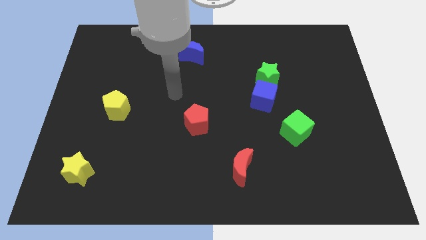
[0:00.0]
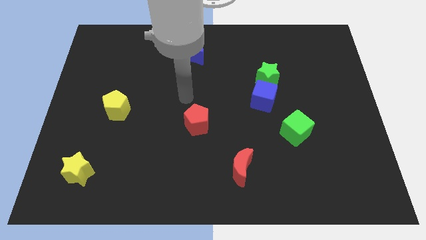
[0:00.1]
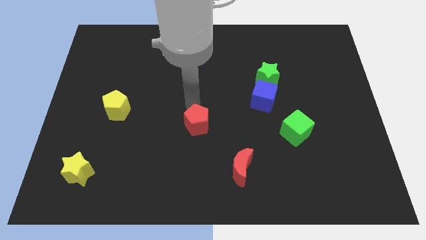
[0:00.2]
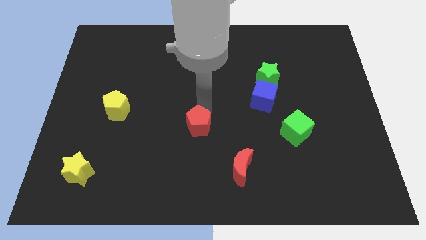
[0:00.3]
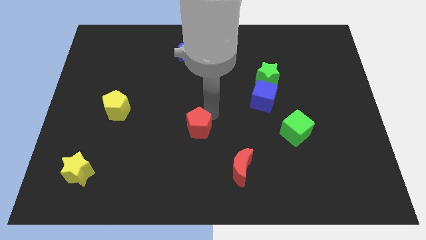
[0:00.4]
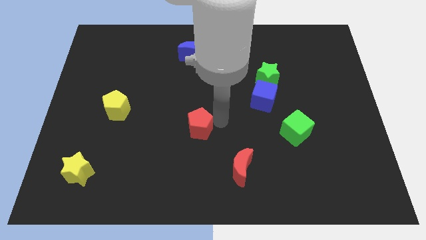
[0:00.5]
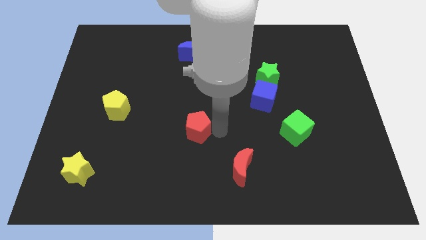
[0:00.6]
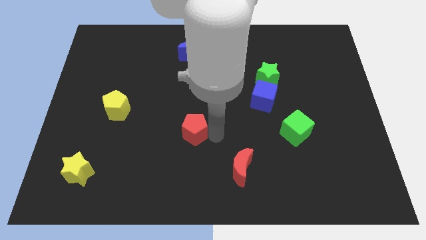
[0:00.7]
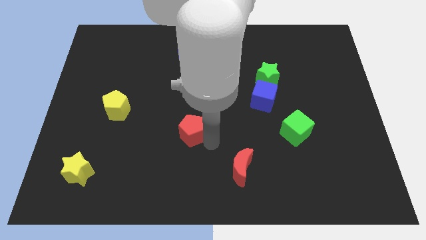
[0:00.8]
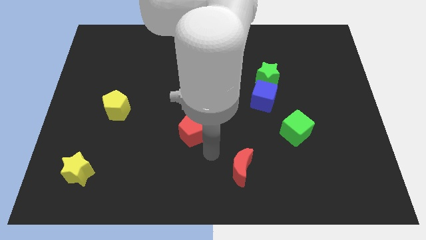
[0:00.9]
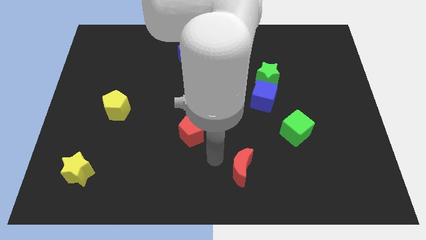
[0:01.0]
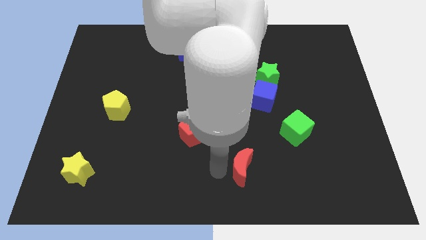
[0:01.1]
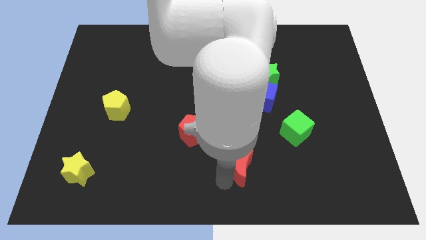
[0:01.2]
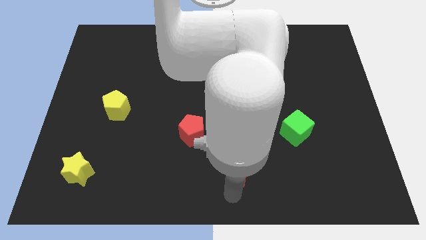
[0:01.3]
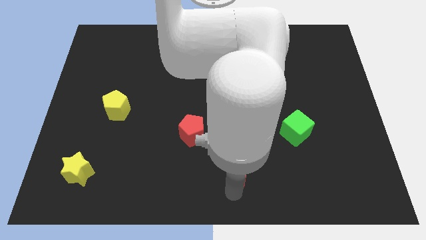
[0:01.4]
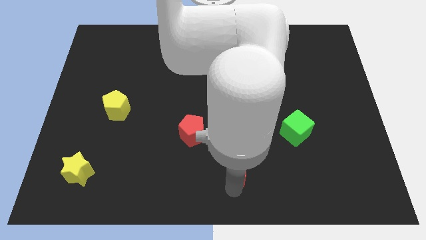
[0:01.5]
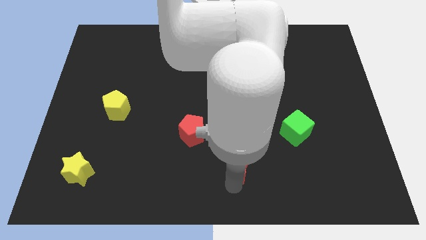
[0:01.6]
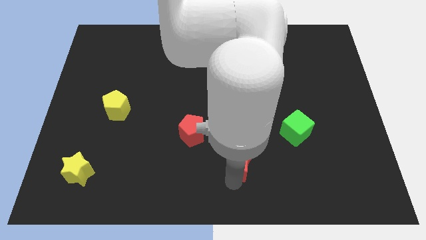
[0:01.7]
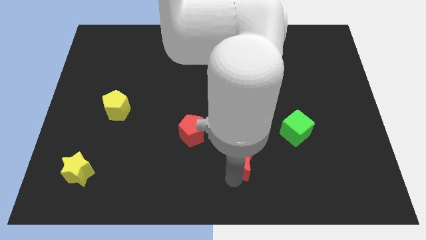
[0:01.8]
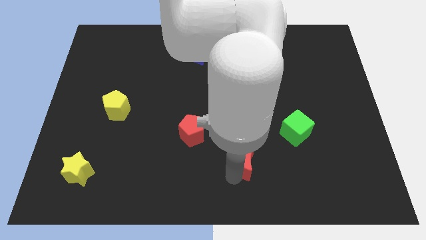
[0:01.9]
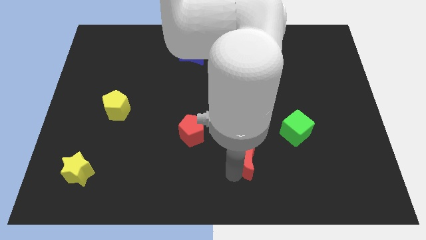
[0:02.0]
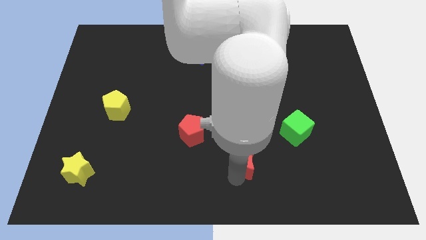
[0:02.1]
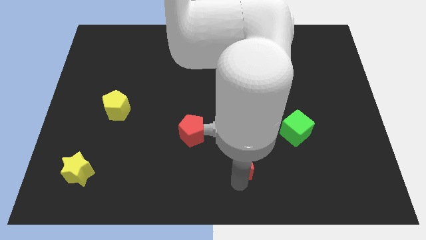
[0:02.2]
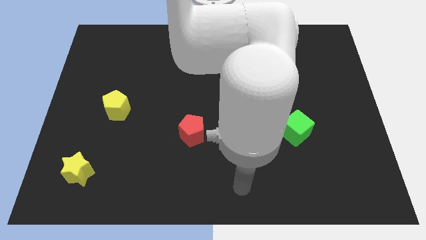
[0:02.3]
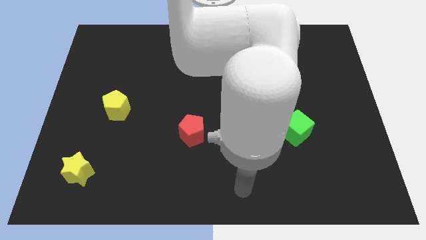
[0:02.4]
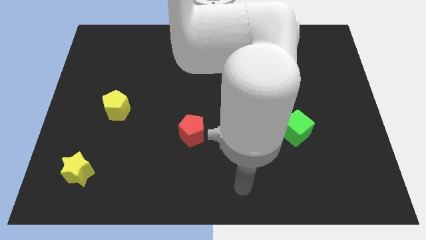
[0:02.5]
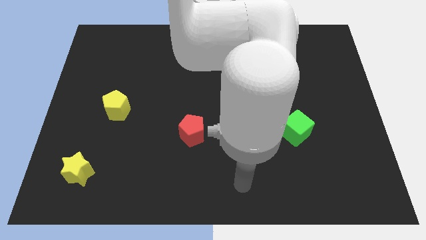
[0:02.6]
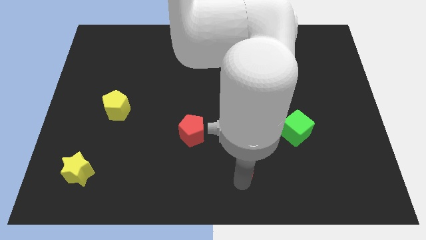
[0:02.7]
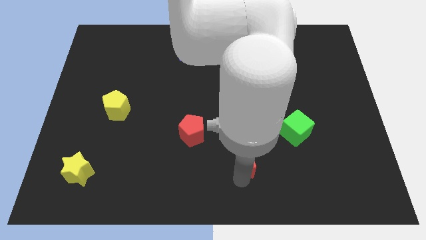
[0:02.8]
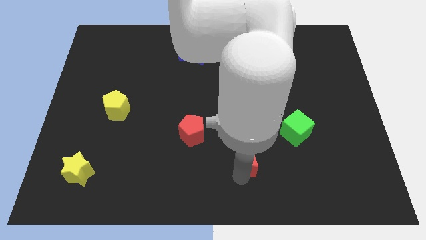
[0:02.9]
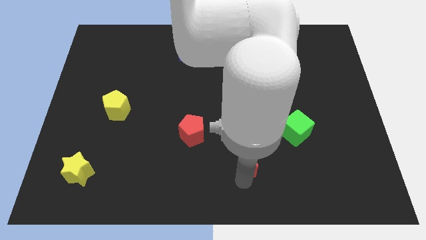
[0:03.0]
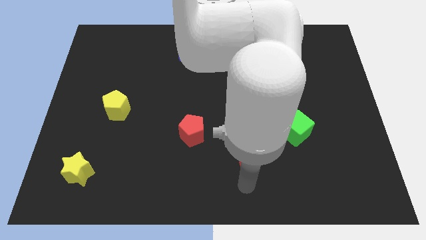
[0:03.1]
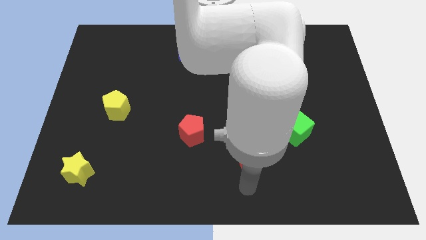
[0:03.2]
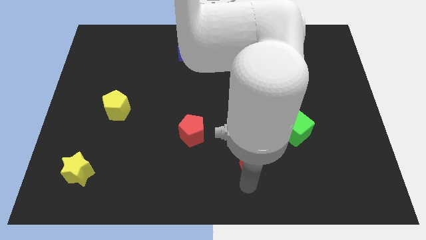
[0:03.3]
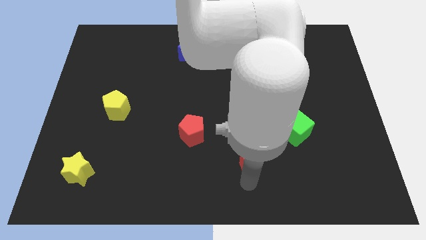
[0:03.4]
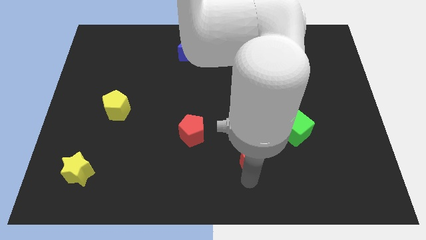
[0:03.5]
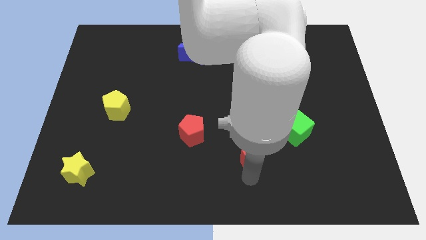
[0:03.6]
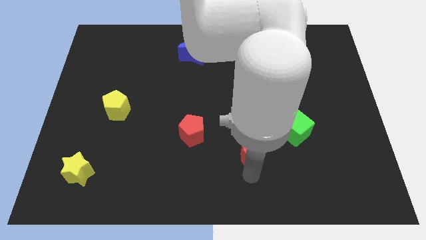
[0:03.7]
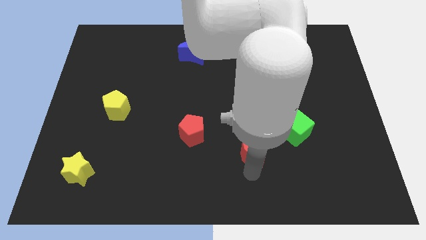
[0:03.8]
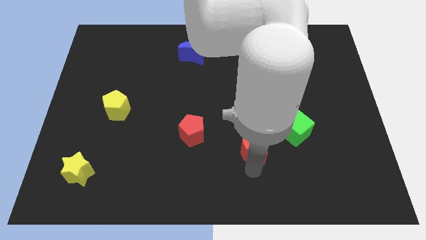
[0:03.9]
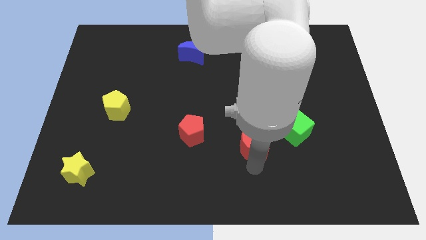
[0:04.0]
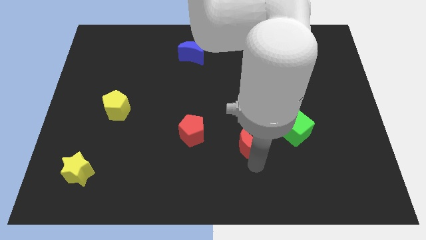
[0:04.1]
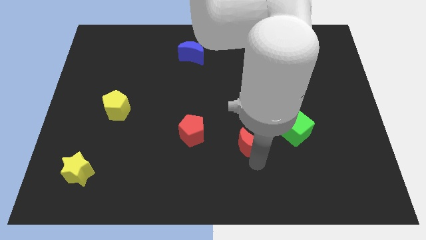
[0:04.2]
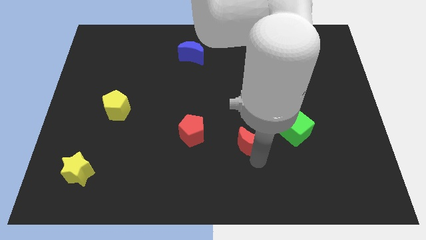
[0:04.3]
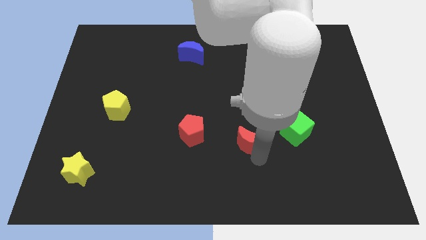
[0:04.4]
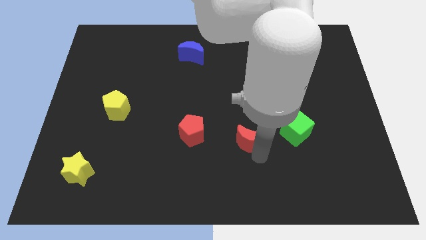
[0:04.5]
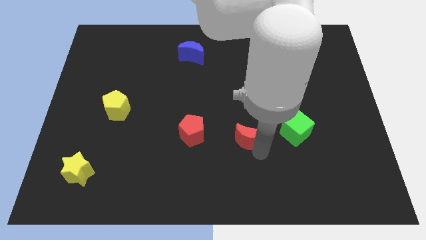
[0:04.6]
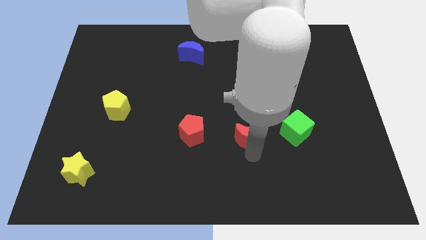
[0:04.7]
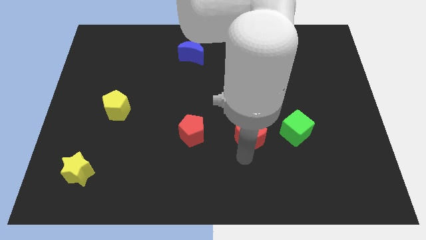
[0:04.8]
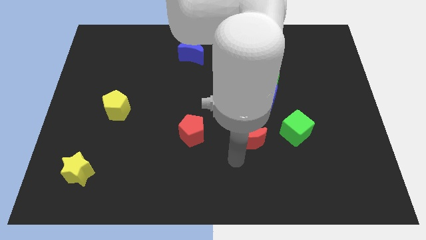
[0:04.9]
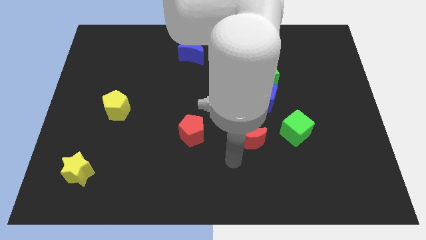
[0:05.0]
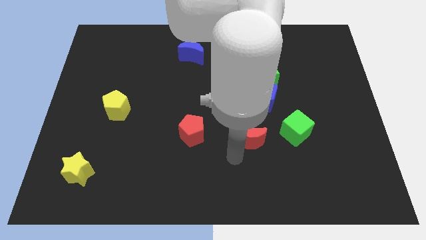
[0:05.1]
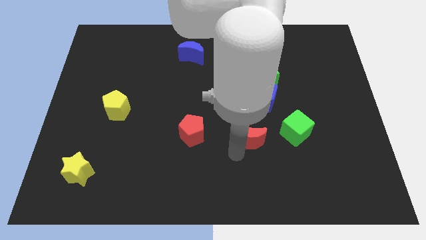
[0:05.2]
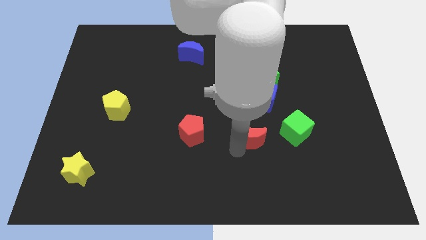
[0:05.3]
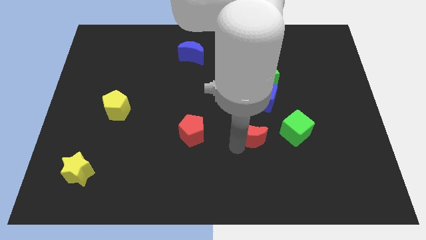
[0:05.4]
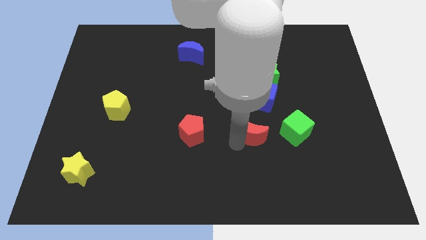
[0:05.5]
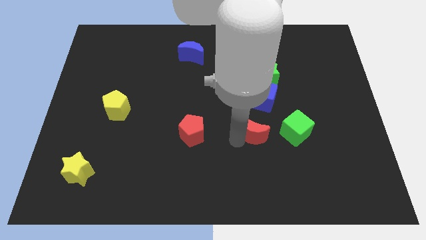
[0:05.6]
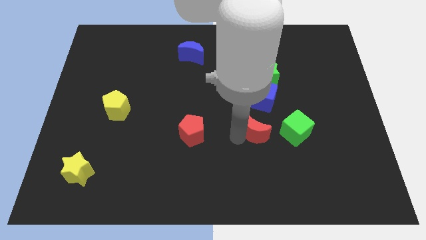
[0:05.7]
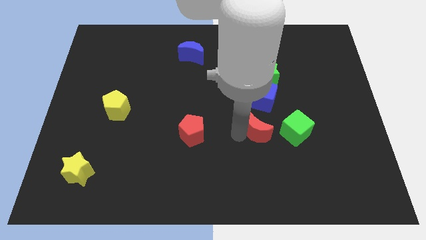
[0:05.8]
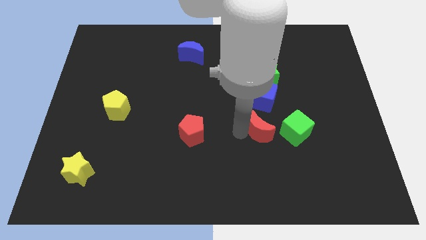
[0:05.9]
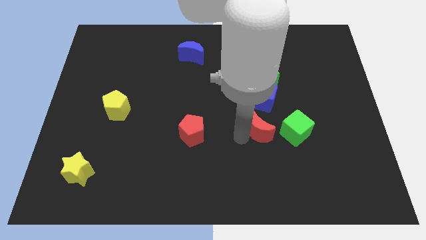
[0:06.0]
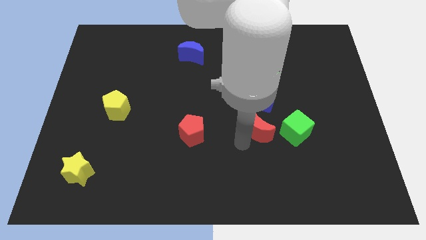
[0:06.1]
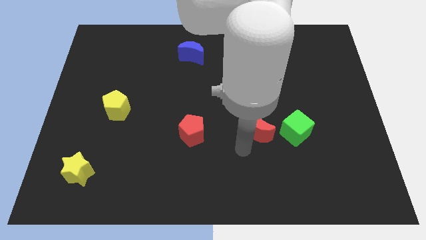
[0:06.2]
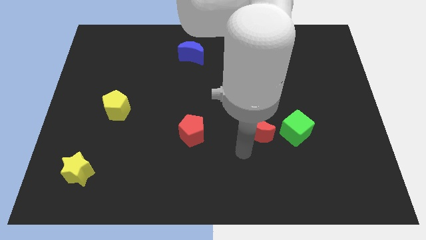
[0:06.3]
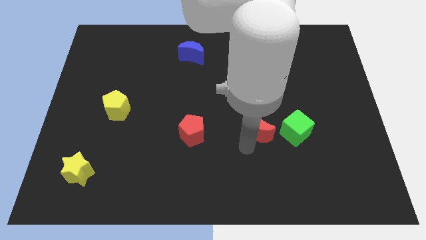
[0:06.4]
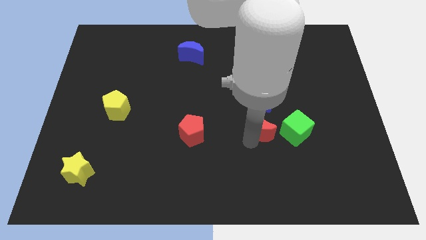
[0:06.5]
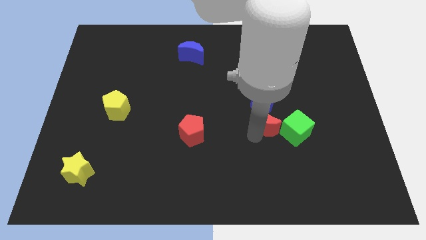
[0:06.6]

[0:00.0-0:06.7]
move the red moon to the top left side of the green cube

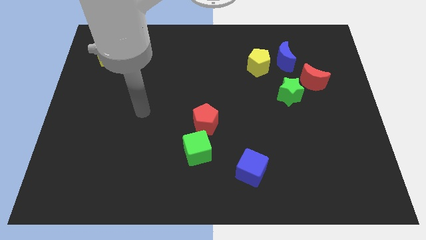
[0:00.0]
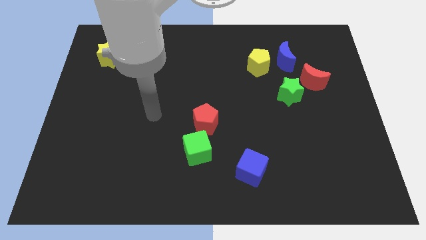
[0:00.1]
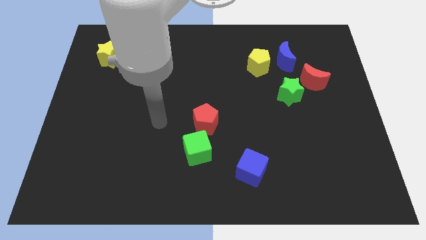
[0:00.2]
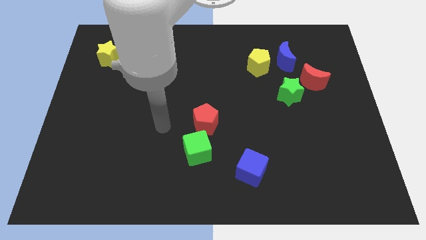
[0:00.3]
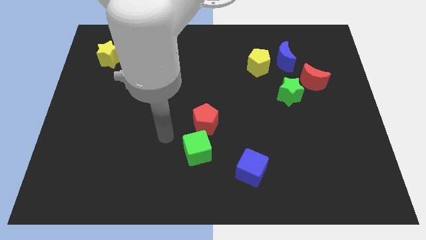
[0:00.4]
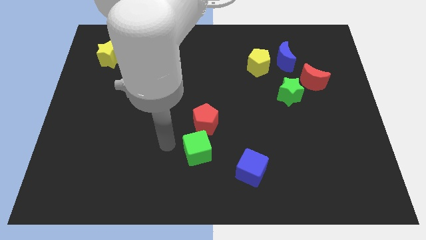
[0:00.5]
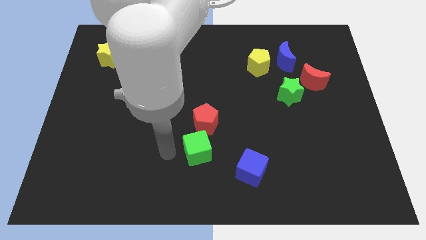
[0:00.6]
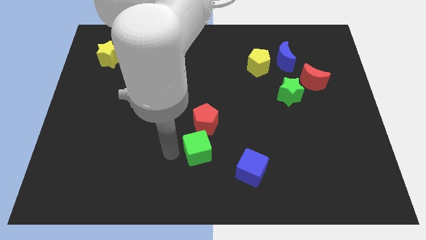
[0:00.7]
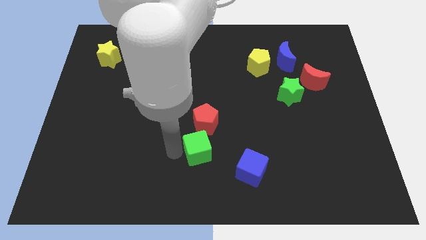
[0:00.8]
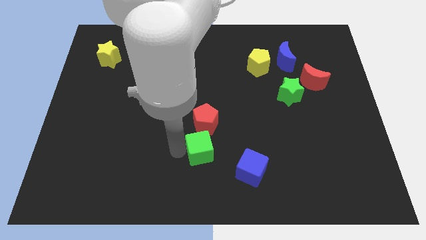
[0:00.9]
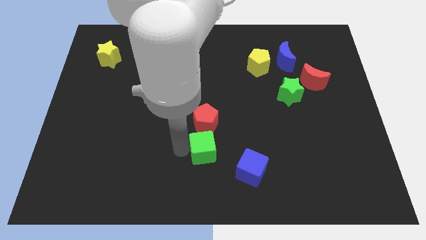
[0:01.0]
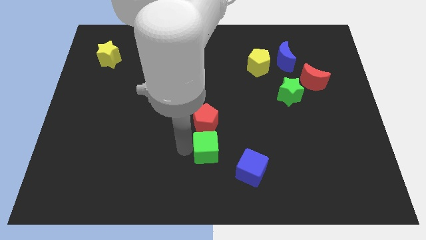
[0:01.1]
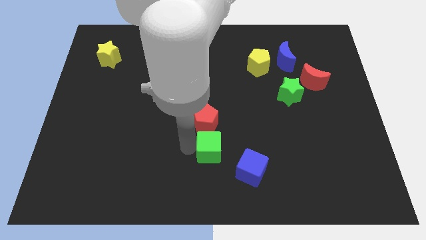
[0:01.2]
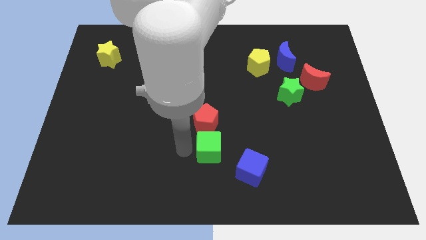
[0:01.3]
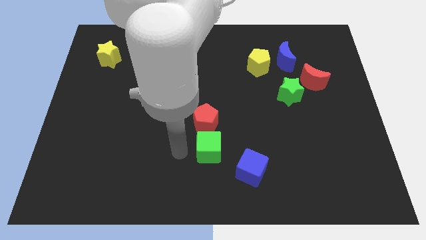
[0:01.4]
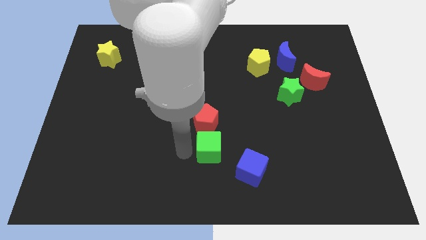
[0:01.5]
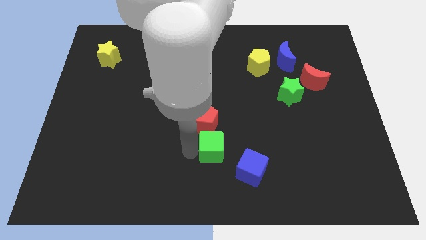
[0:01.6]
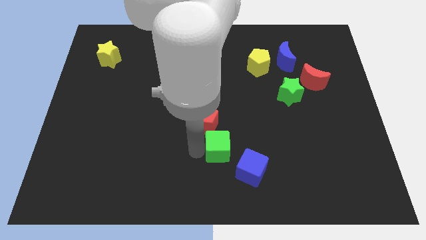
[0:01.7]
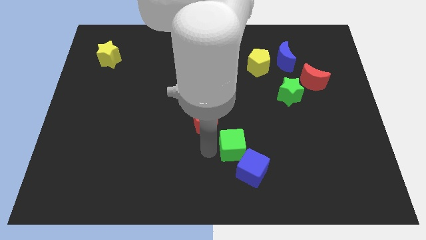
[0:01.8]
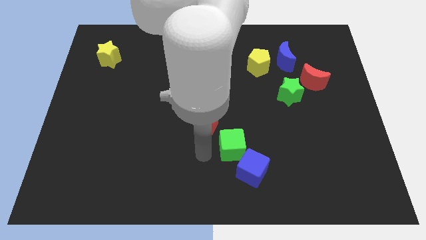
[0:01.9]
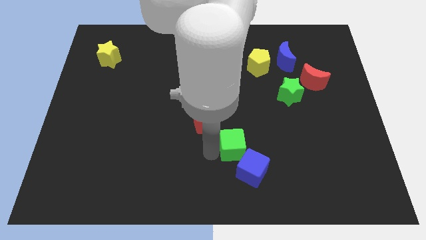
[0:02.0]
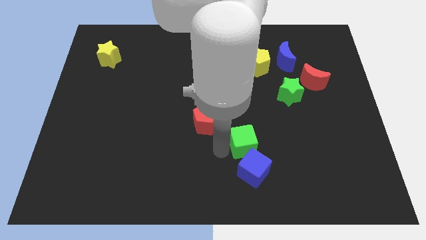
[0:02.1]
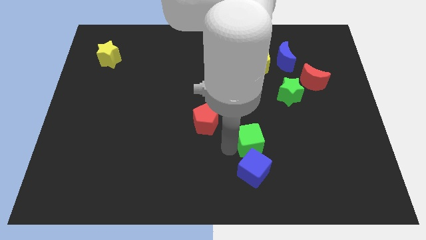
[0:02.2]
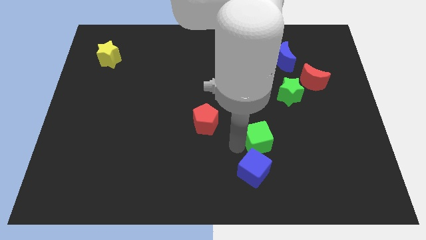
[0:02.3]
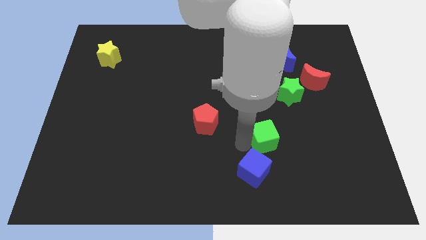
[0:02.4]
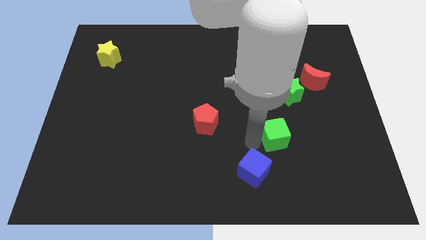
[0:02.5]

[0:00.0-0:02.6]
move the green cube below the green star
